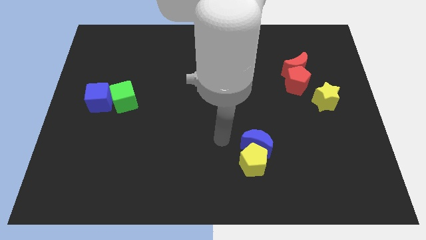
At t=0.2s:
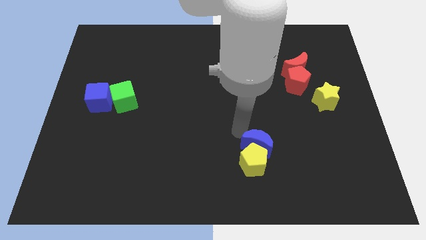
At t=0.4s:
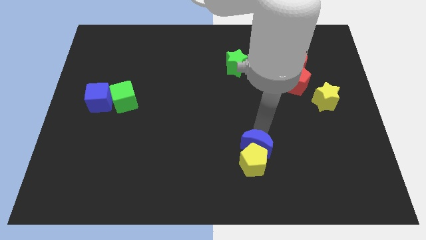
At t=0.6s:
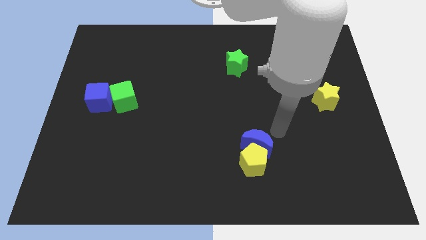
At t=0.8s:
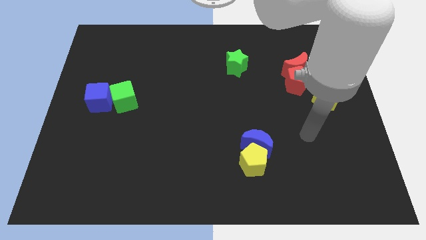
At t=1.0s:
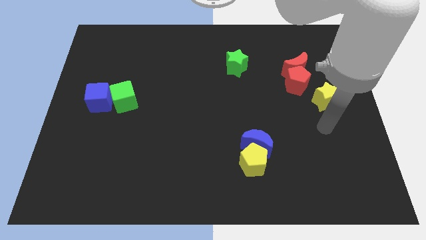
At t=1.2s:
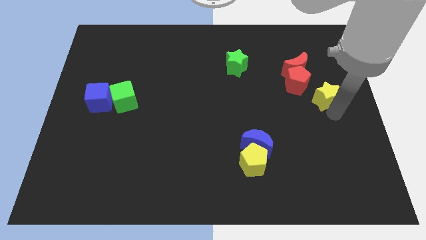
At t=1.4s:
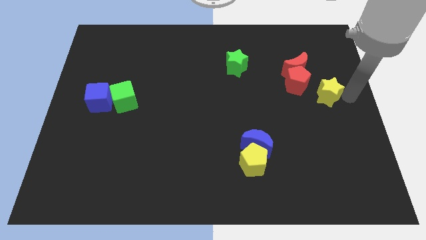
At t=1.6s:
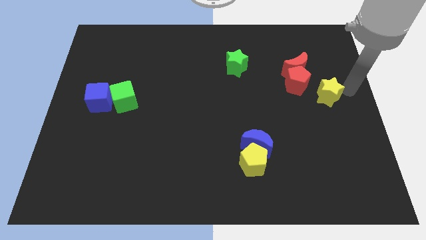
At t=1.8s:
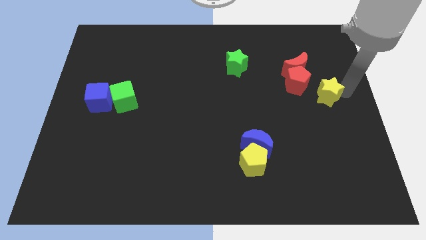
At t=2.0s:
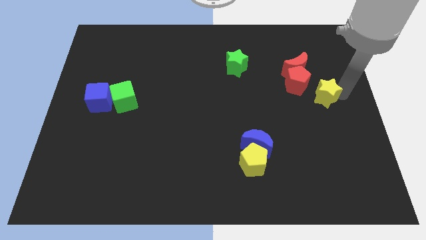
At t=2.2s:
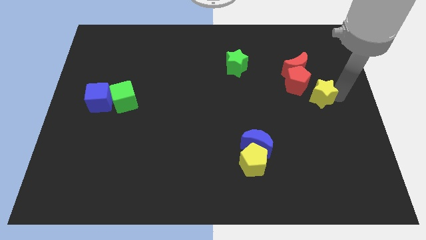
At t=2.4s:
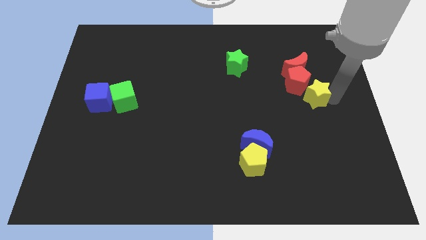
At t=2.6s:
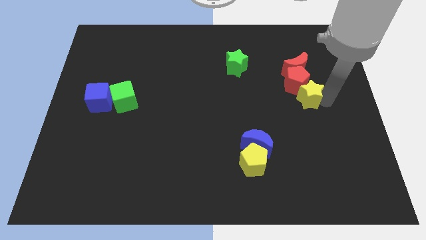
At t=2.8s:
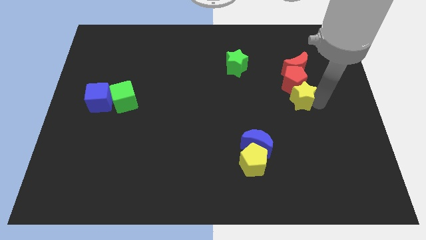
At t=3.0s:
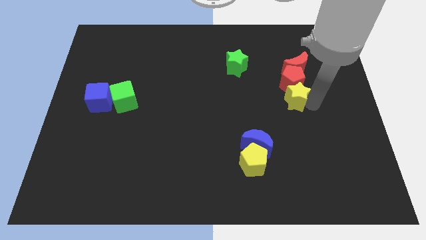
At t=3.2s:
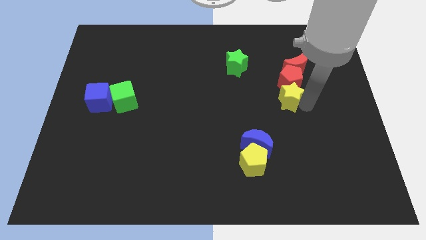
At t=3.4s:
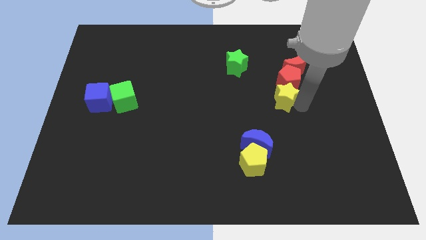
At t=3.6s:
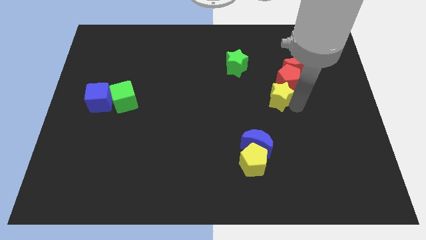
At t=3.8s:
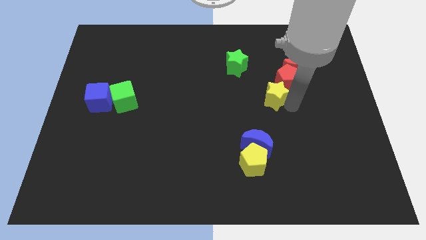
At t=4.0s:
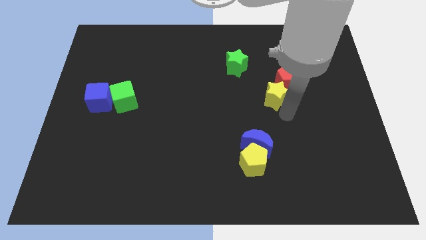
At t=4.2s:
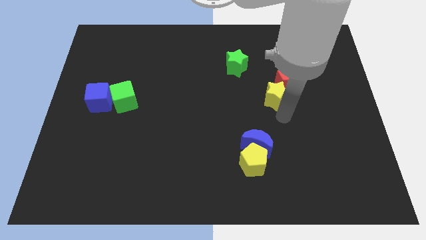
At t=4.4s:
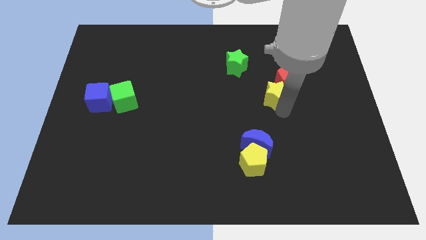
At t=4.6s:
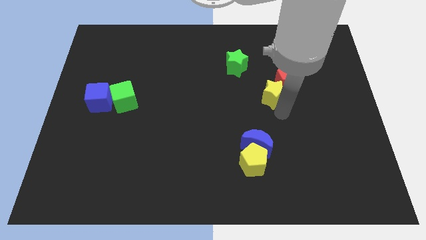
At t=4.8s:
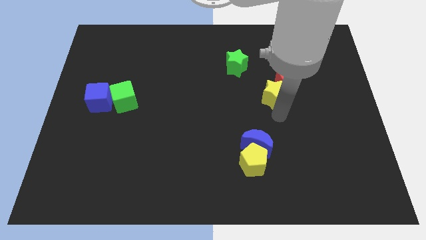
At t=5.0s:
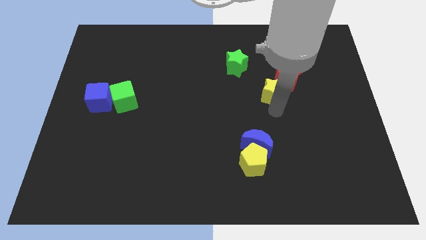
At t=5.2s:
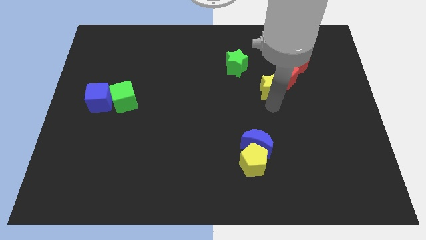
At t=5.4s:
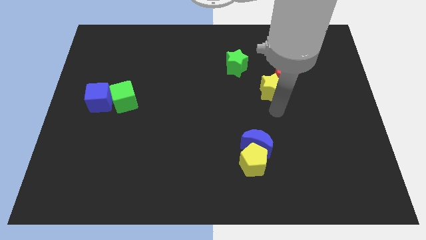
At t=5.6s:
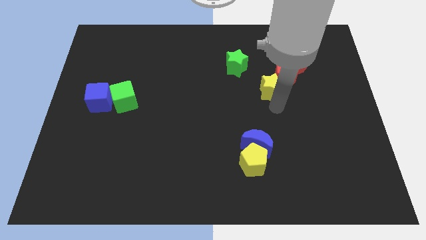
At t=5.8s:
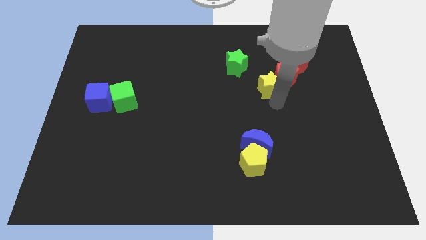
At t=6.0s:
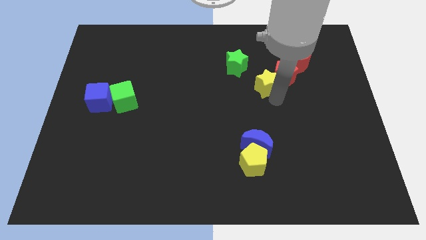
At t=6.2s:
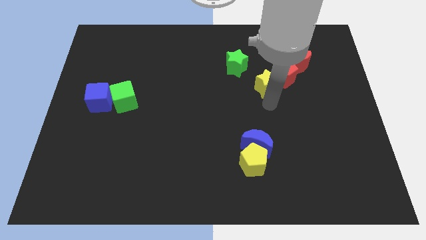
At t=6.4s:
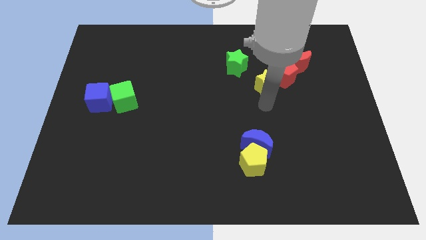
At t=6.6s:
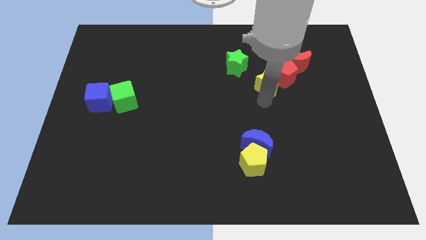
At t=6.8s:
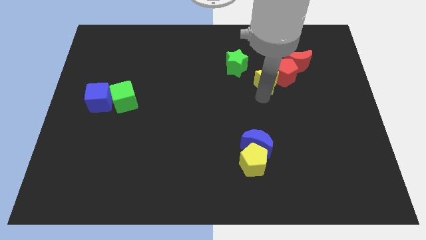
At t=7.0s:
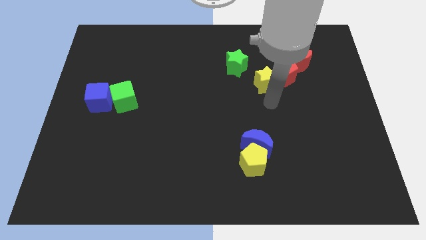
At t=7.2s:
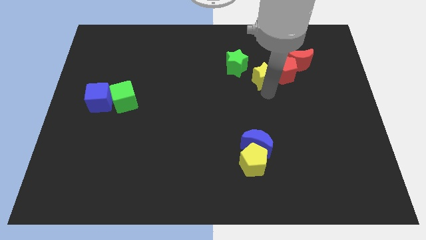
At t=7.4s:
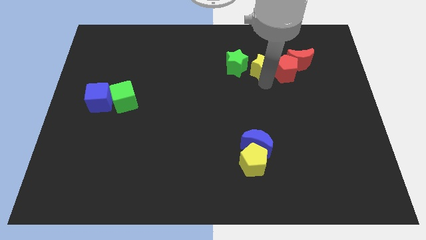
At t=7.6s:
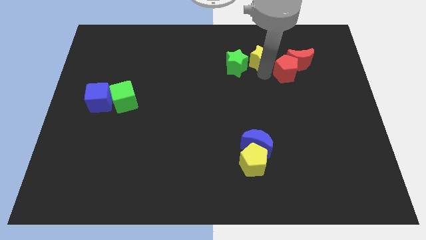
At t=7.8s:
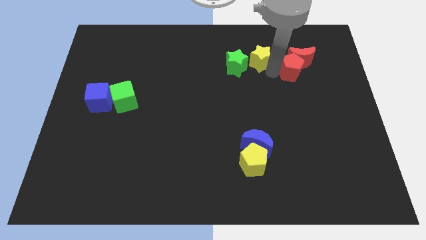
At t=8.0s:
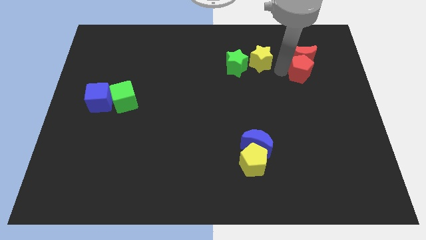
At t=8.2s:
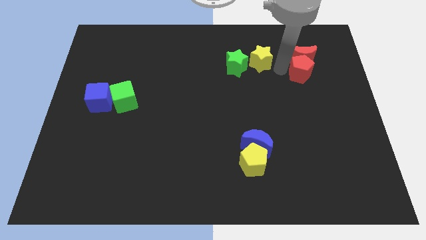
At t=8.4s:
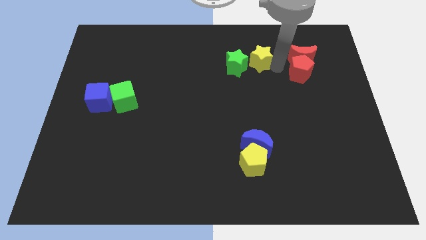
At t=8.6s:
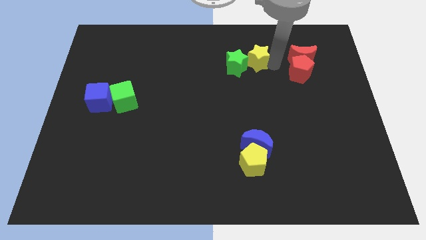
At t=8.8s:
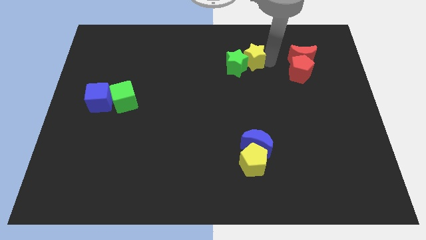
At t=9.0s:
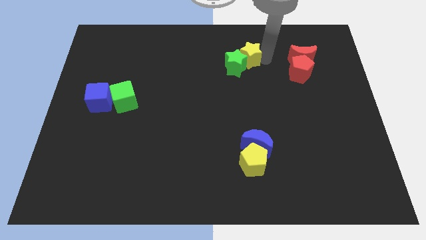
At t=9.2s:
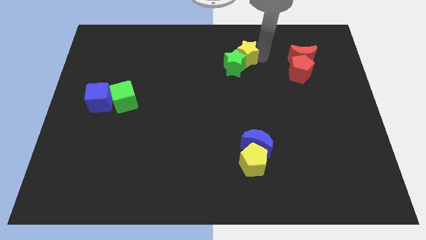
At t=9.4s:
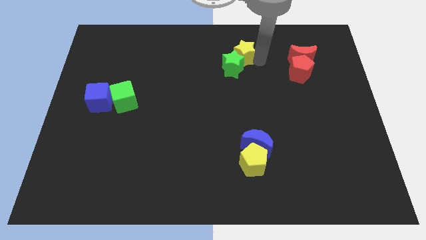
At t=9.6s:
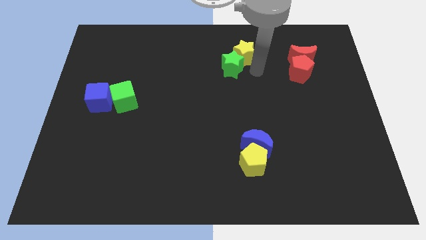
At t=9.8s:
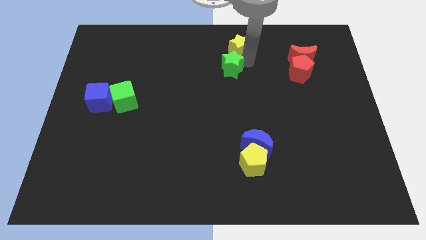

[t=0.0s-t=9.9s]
move the yellow star to the towards your base

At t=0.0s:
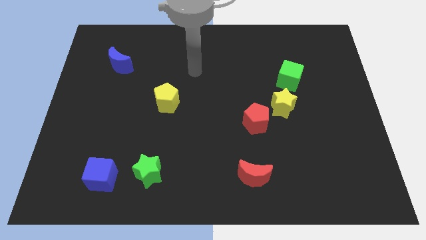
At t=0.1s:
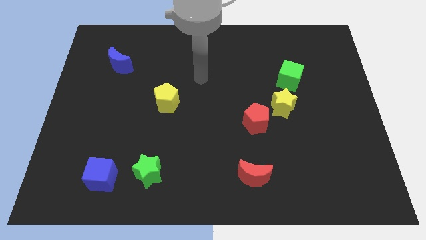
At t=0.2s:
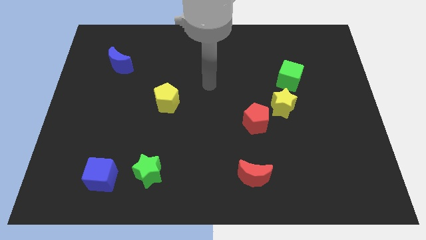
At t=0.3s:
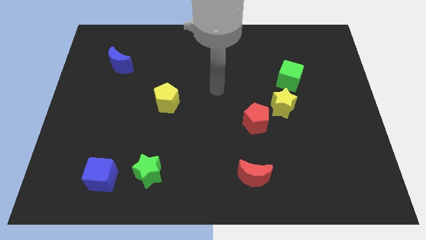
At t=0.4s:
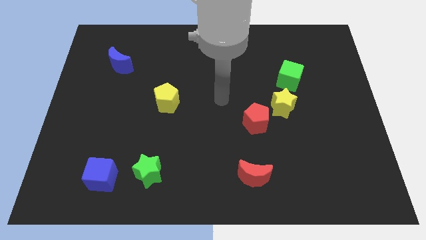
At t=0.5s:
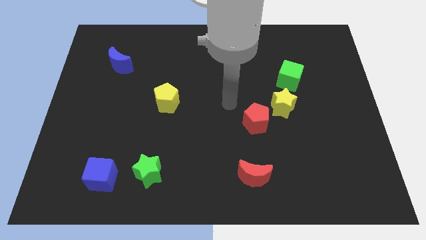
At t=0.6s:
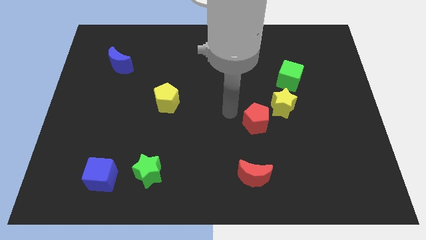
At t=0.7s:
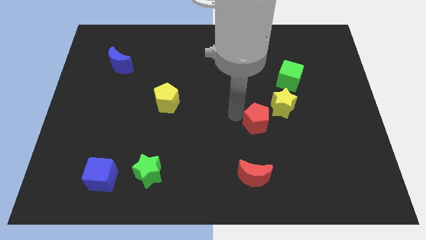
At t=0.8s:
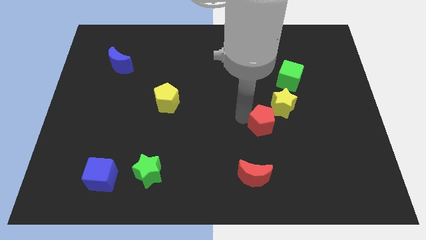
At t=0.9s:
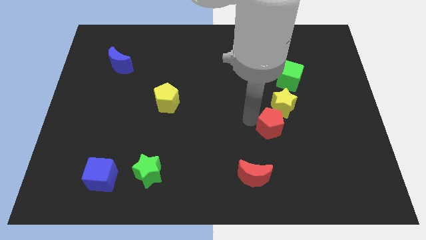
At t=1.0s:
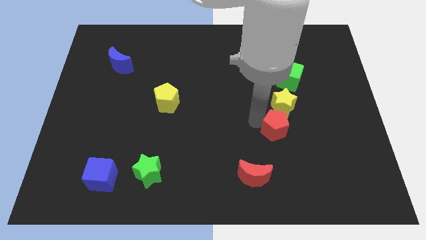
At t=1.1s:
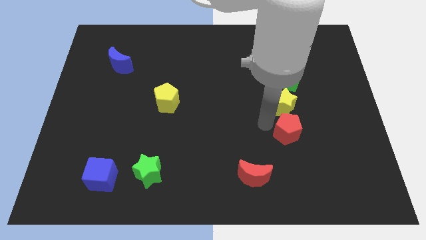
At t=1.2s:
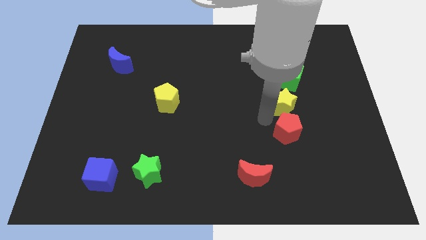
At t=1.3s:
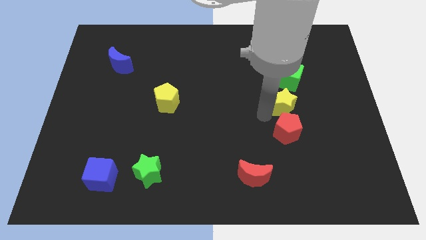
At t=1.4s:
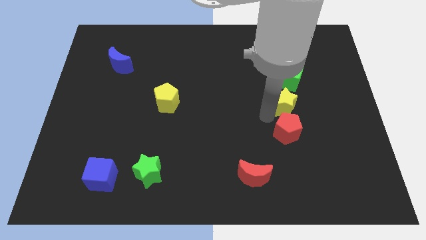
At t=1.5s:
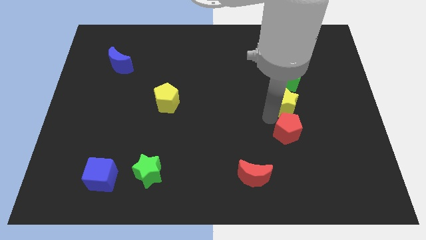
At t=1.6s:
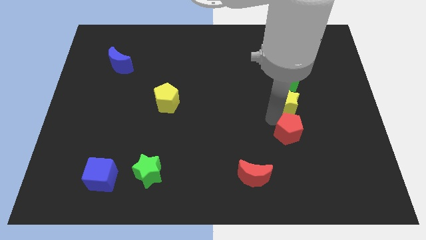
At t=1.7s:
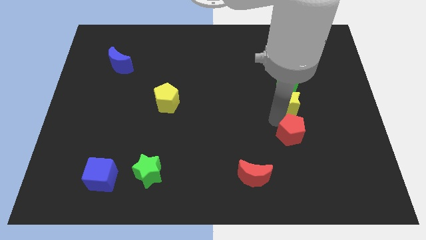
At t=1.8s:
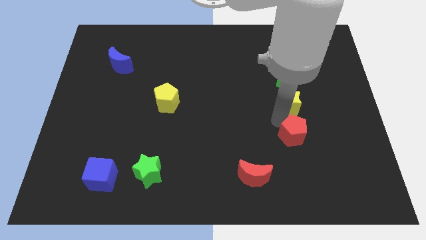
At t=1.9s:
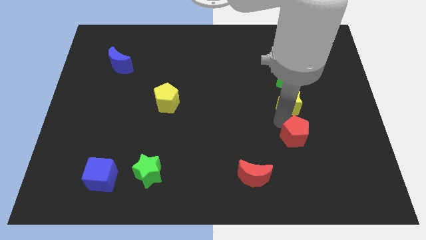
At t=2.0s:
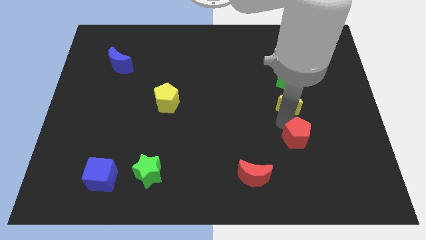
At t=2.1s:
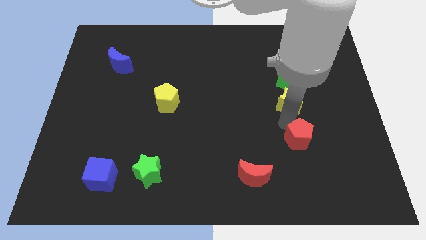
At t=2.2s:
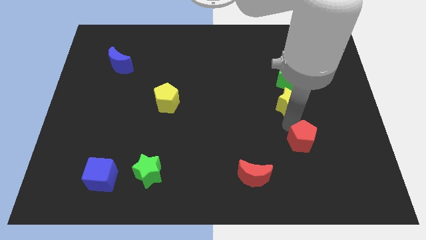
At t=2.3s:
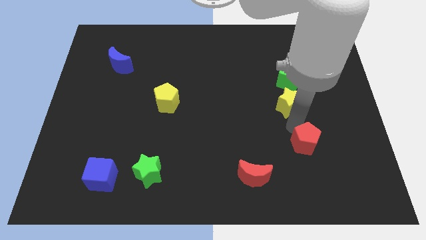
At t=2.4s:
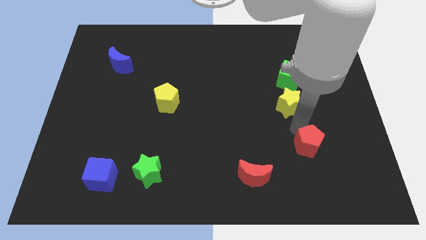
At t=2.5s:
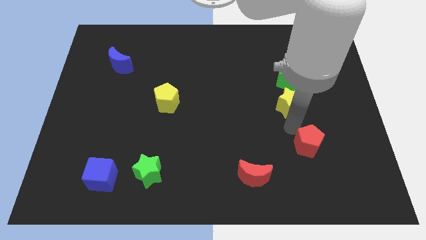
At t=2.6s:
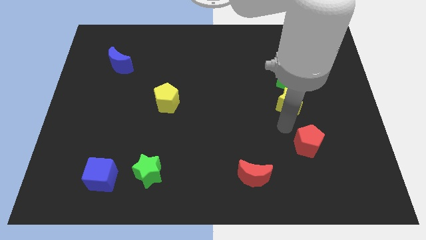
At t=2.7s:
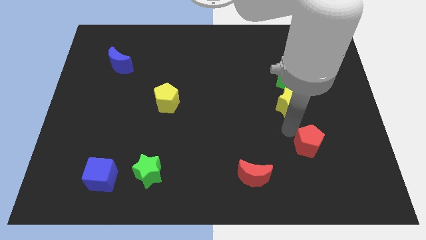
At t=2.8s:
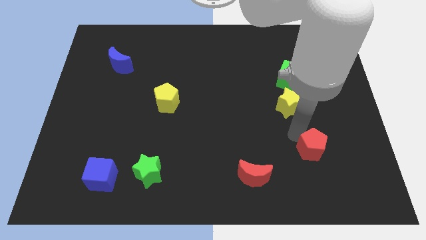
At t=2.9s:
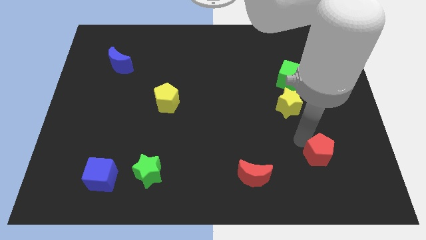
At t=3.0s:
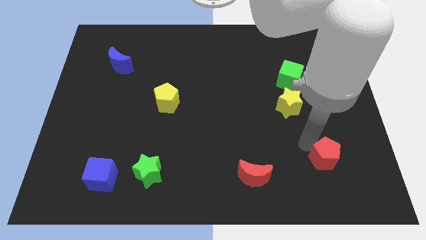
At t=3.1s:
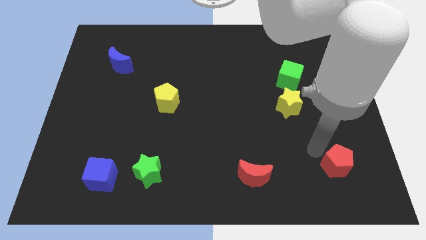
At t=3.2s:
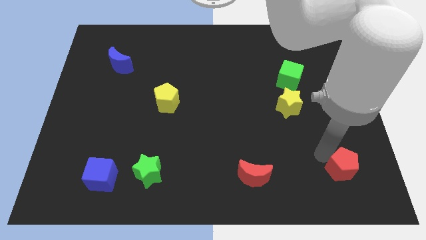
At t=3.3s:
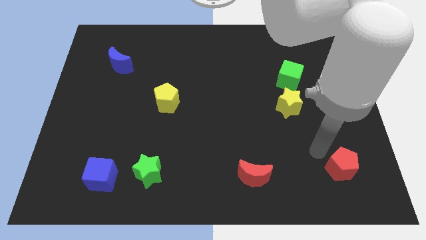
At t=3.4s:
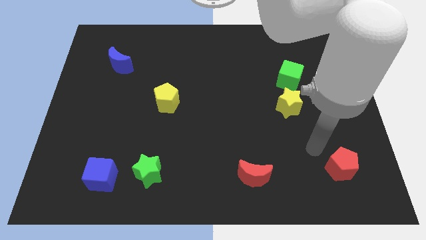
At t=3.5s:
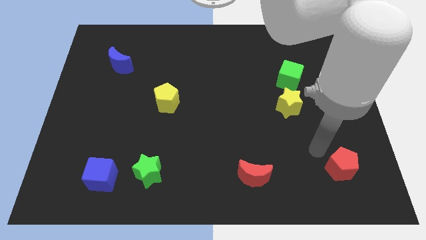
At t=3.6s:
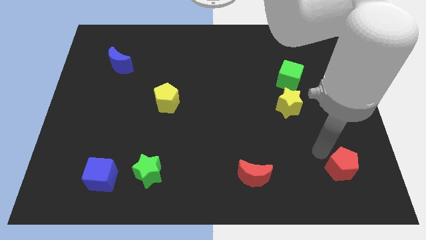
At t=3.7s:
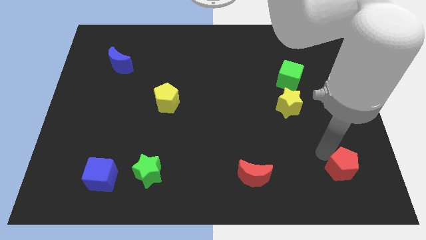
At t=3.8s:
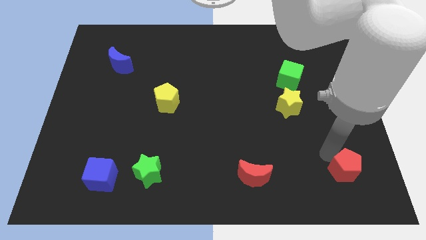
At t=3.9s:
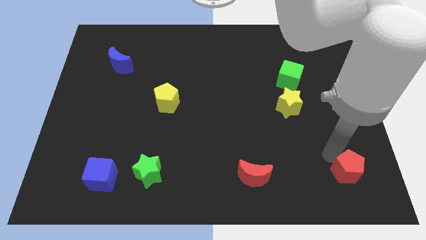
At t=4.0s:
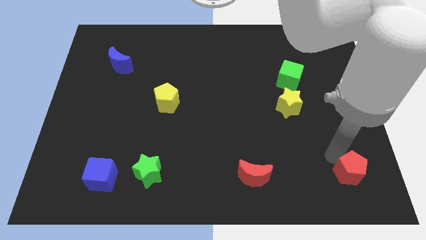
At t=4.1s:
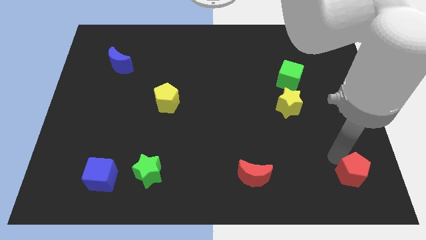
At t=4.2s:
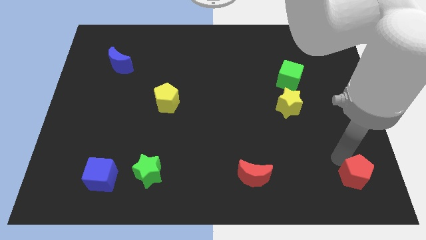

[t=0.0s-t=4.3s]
move the red pentagon to the bottom right corner
